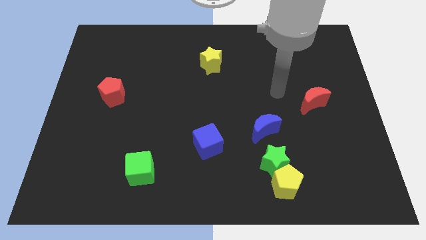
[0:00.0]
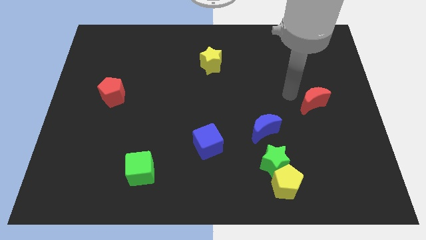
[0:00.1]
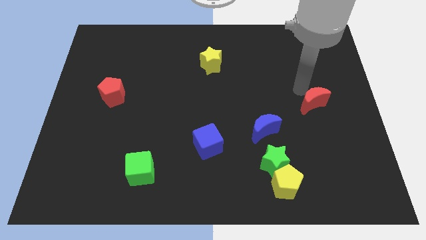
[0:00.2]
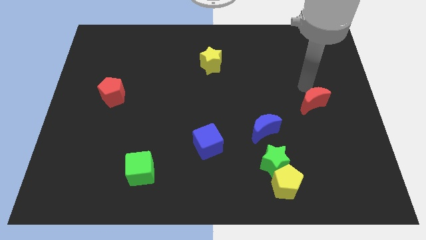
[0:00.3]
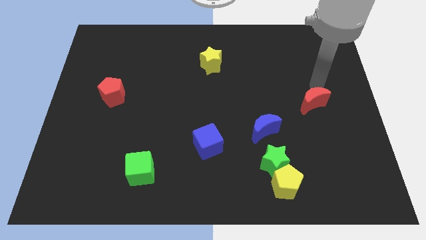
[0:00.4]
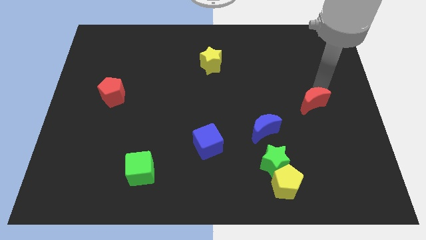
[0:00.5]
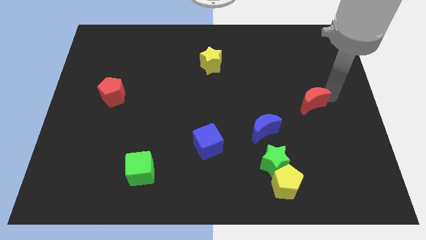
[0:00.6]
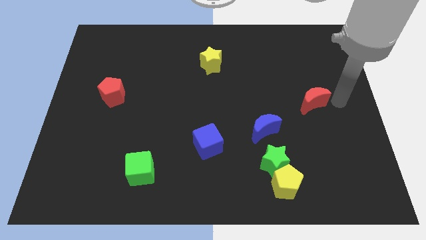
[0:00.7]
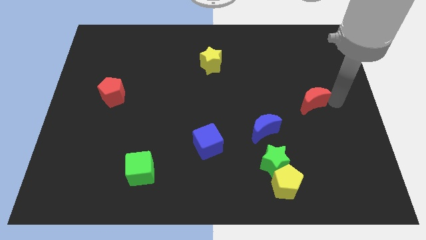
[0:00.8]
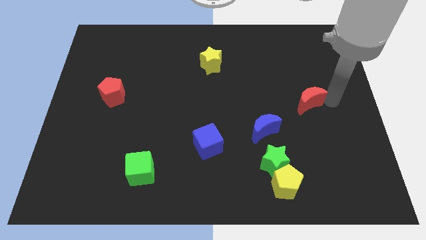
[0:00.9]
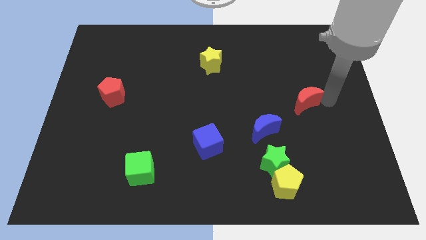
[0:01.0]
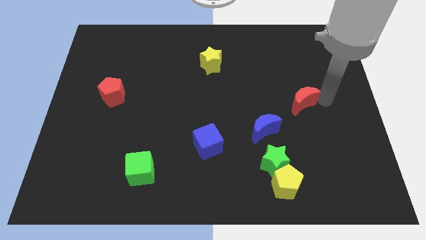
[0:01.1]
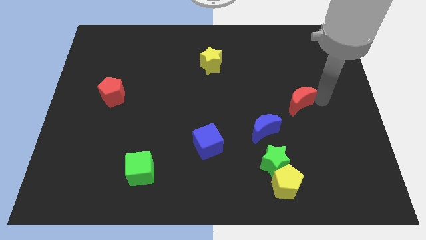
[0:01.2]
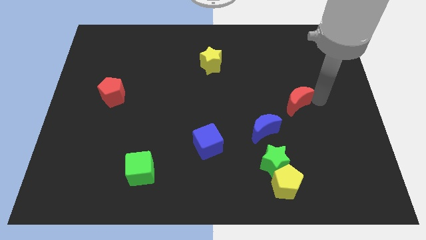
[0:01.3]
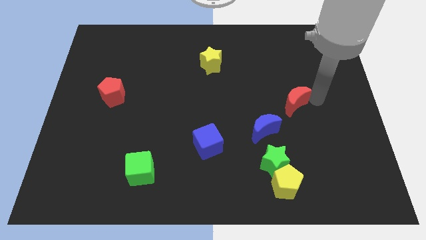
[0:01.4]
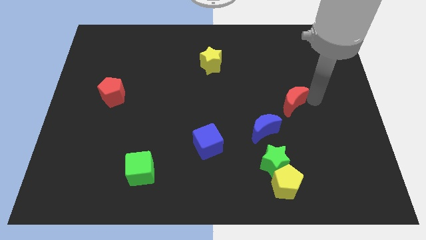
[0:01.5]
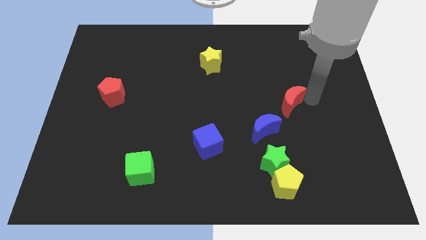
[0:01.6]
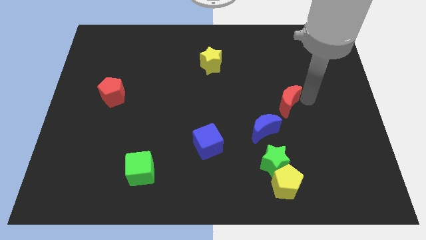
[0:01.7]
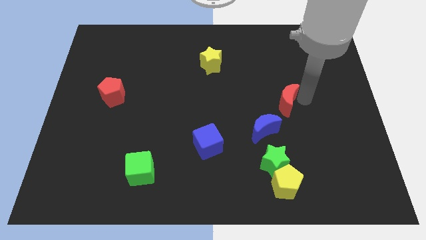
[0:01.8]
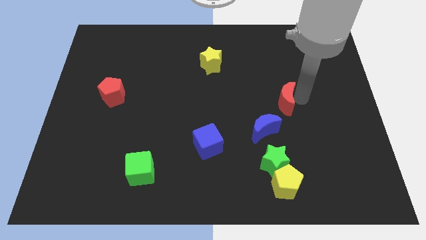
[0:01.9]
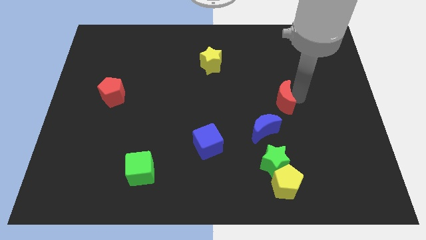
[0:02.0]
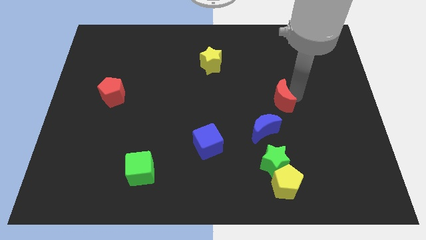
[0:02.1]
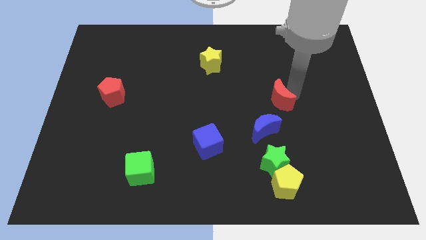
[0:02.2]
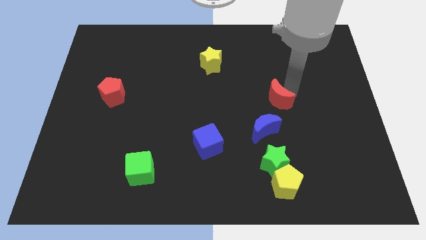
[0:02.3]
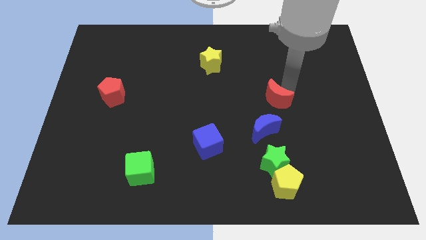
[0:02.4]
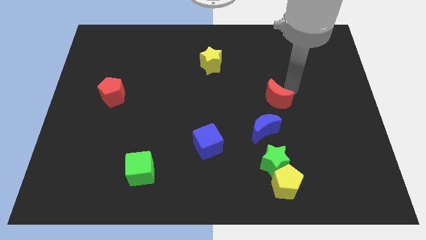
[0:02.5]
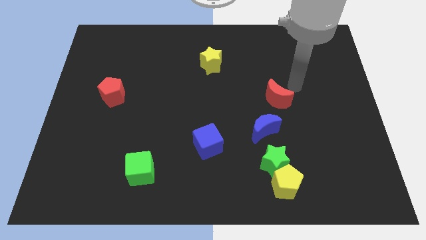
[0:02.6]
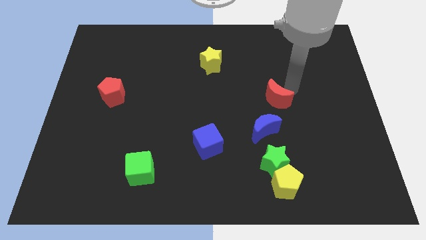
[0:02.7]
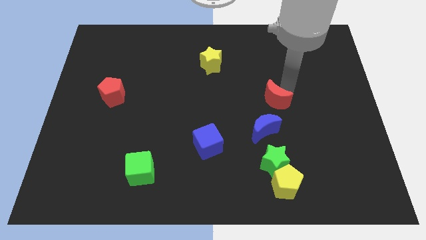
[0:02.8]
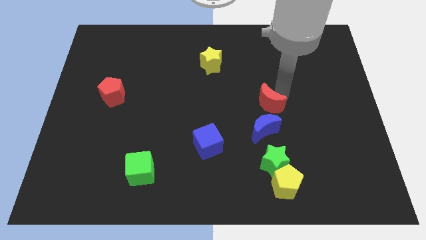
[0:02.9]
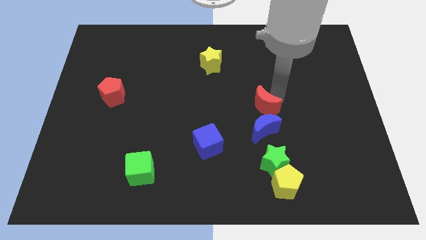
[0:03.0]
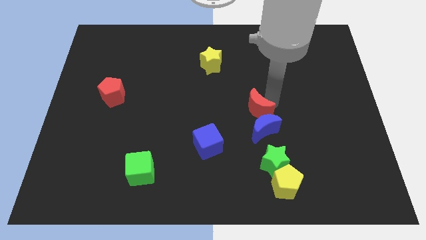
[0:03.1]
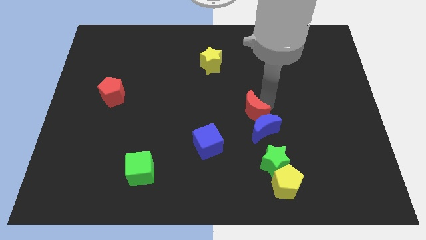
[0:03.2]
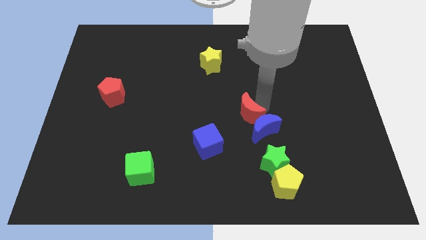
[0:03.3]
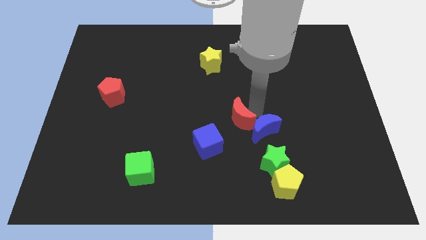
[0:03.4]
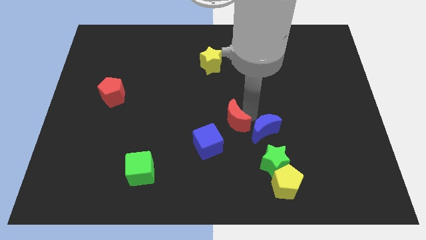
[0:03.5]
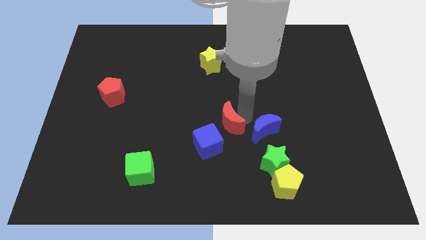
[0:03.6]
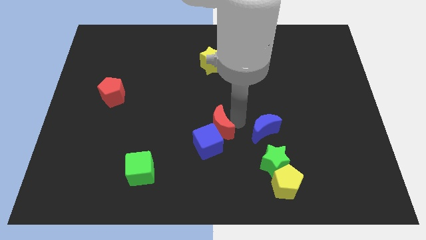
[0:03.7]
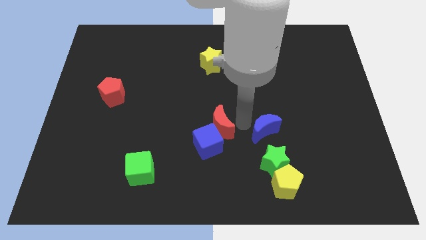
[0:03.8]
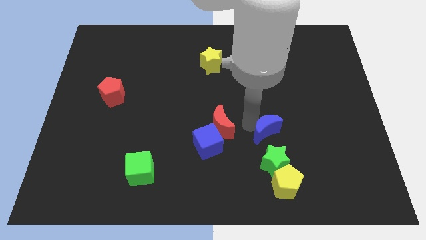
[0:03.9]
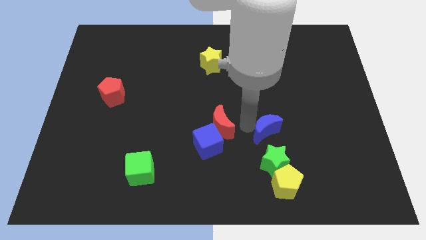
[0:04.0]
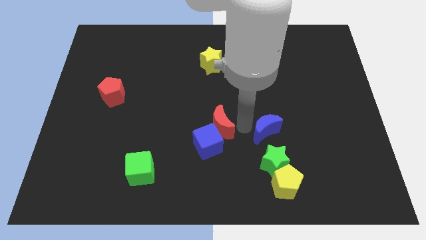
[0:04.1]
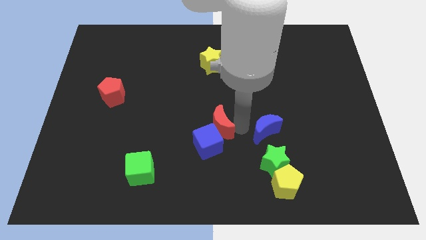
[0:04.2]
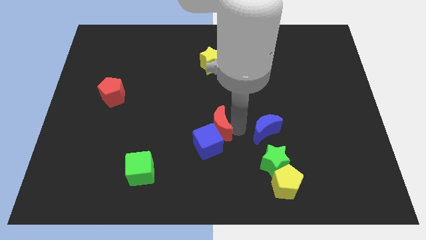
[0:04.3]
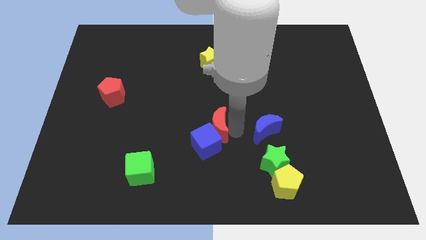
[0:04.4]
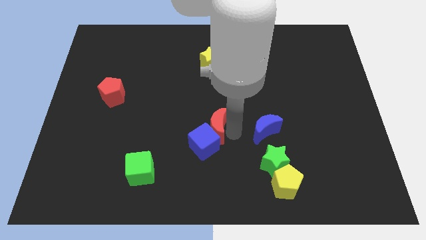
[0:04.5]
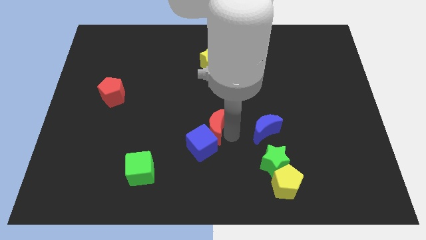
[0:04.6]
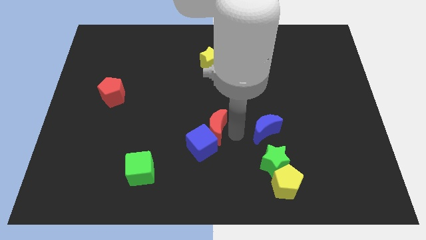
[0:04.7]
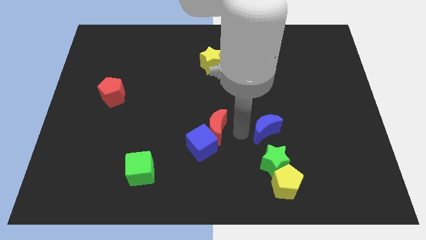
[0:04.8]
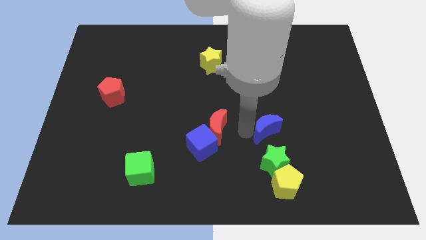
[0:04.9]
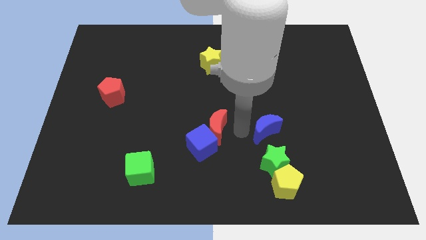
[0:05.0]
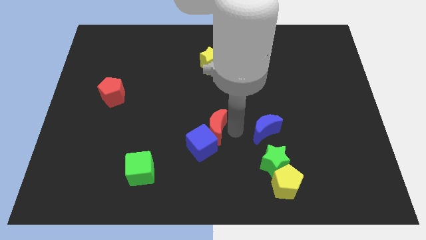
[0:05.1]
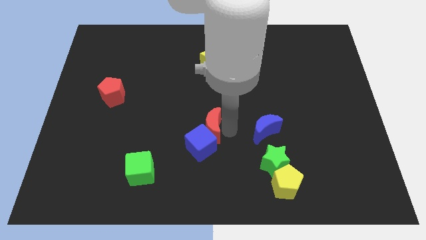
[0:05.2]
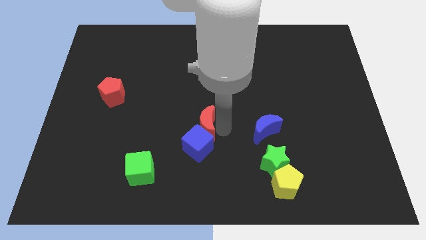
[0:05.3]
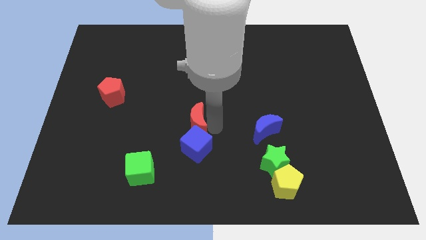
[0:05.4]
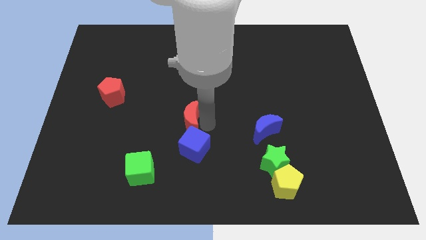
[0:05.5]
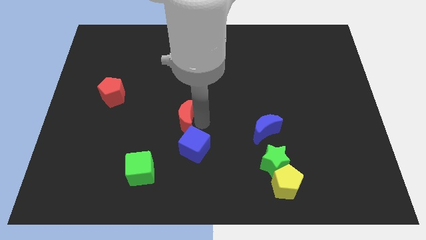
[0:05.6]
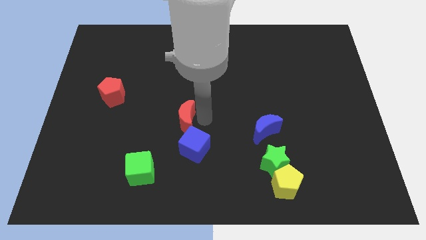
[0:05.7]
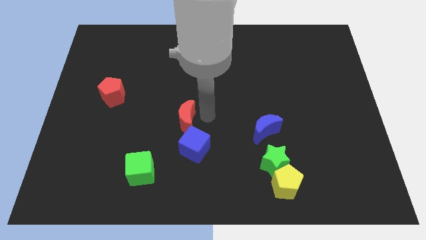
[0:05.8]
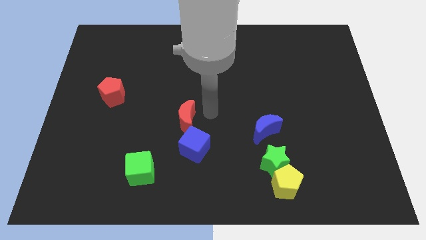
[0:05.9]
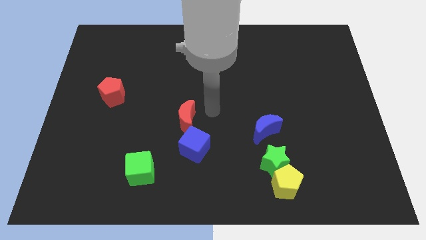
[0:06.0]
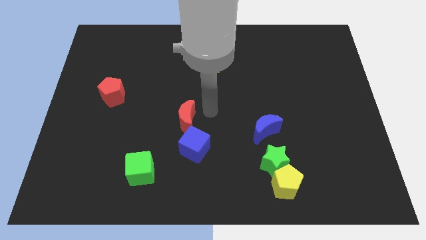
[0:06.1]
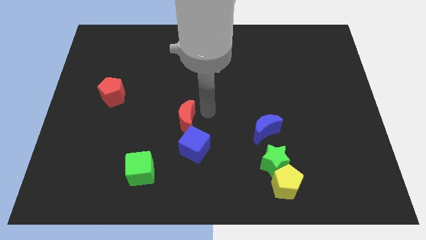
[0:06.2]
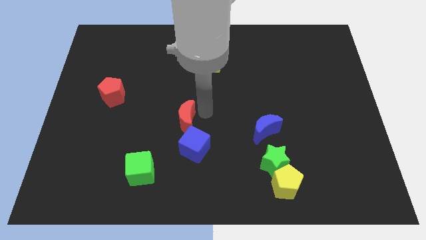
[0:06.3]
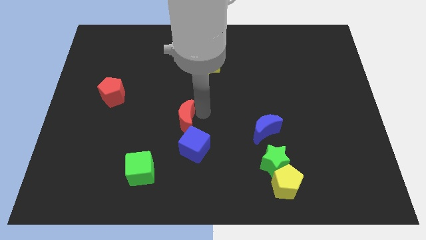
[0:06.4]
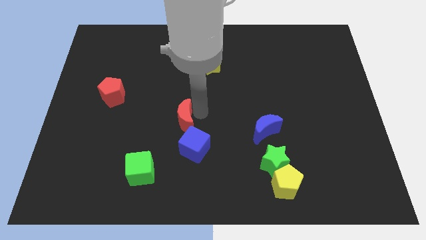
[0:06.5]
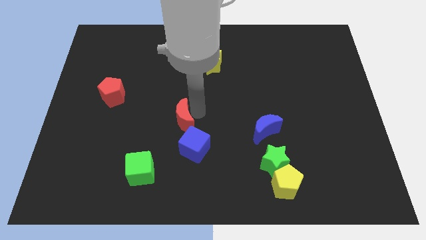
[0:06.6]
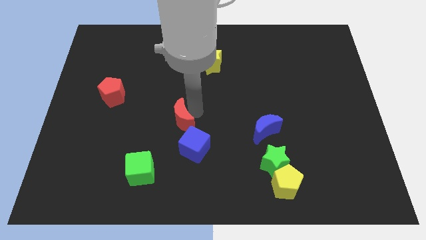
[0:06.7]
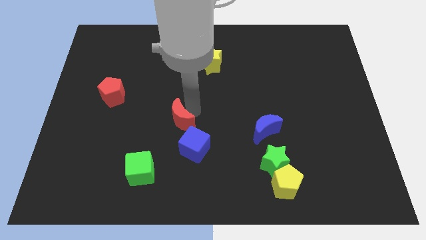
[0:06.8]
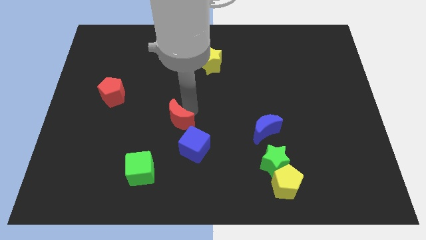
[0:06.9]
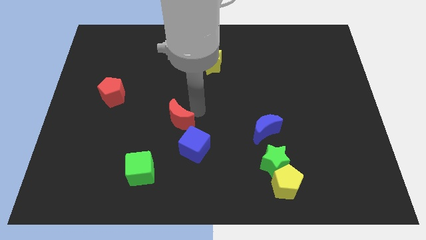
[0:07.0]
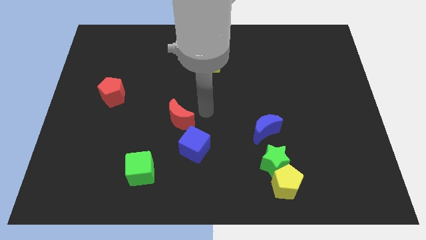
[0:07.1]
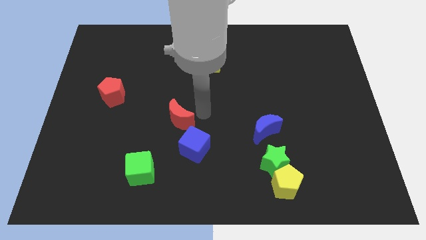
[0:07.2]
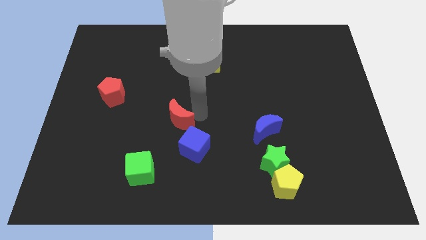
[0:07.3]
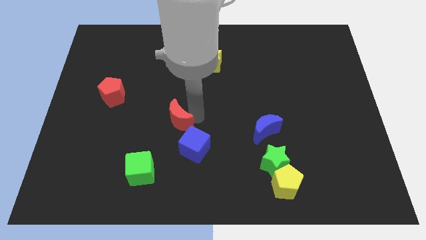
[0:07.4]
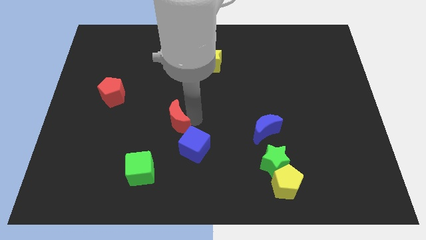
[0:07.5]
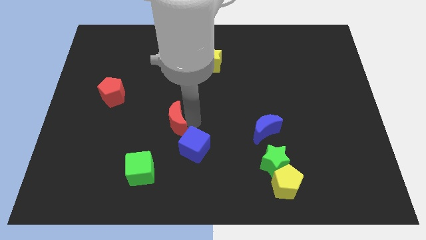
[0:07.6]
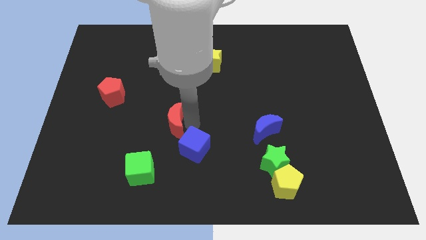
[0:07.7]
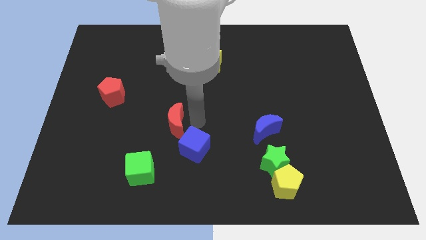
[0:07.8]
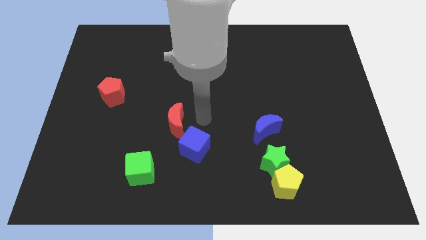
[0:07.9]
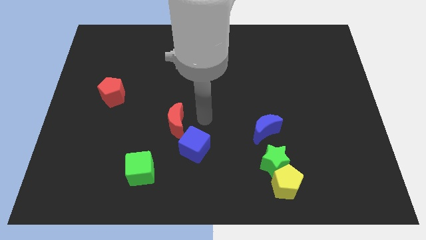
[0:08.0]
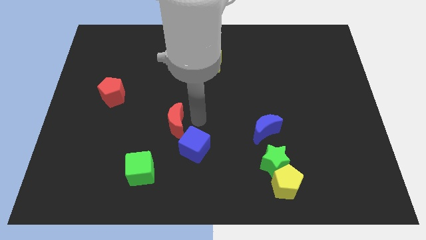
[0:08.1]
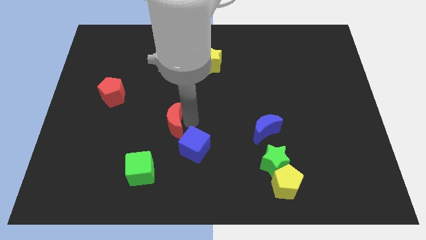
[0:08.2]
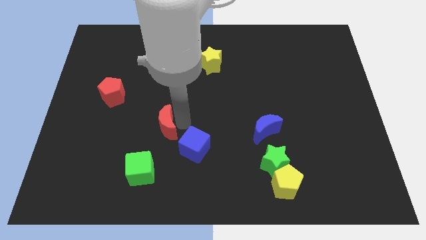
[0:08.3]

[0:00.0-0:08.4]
put the red moon above the green cube
